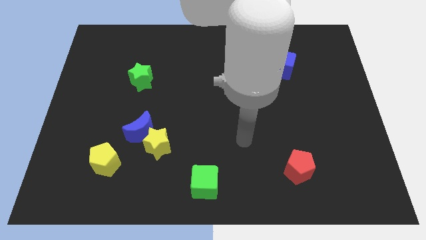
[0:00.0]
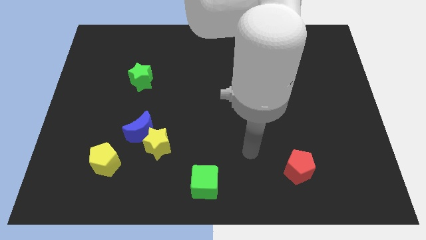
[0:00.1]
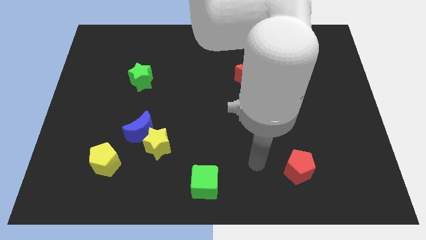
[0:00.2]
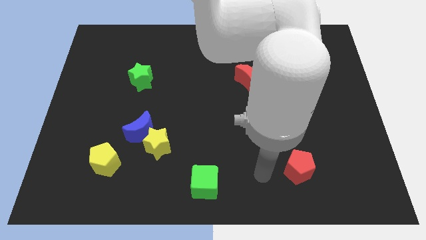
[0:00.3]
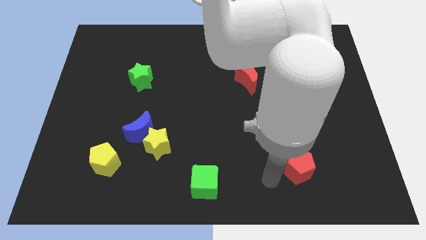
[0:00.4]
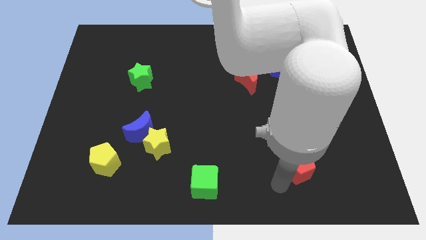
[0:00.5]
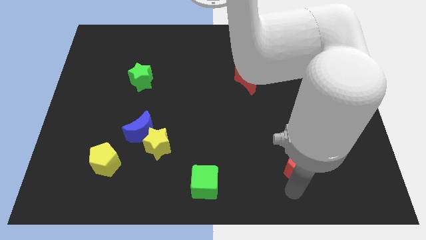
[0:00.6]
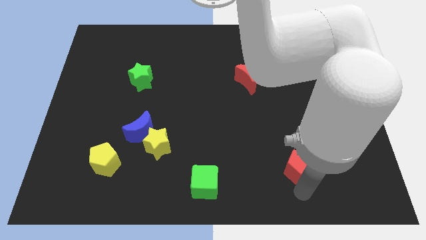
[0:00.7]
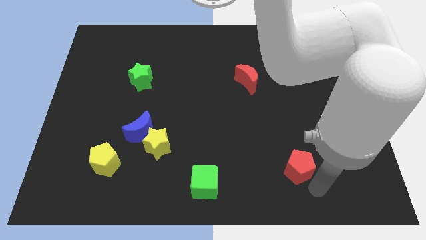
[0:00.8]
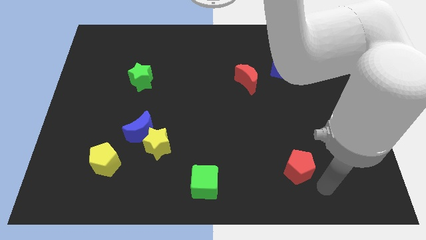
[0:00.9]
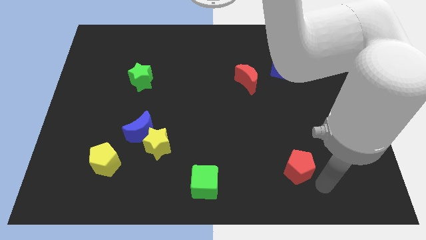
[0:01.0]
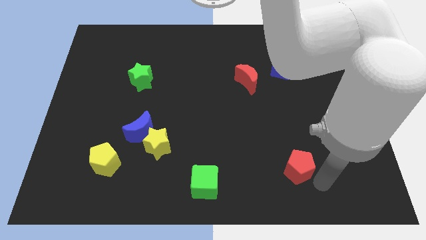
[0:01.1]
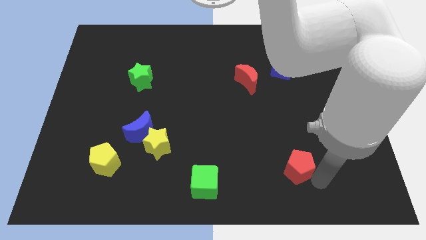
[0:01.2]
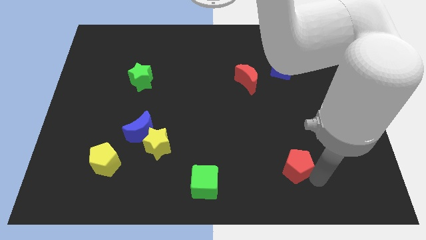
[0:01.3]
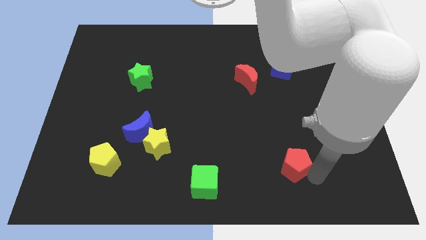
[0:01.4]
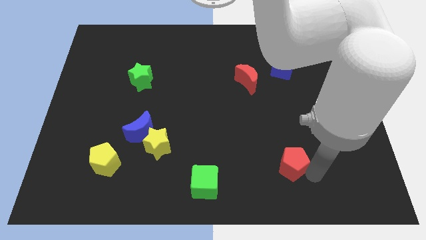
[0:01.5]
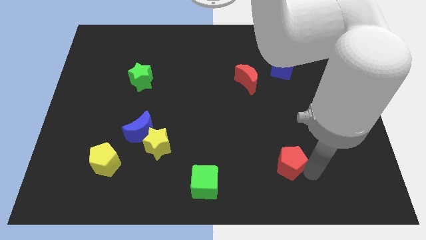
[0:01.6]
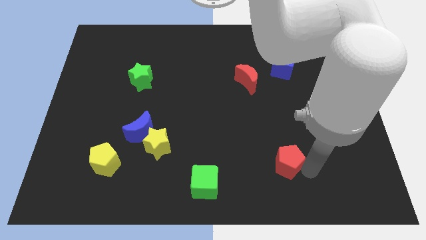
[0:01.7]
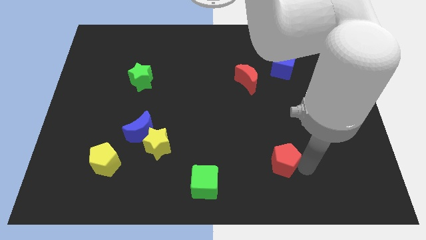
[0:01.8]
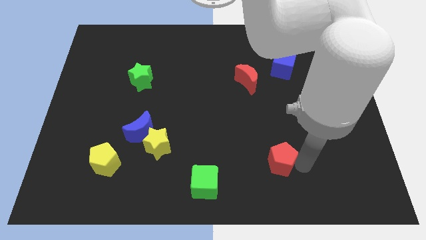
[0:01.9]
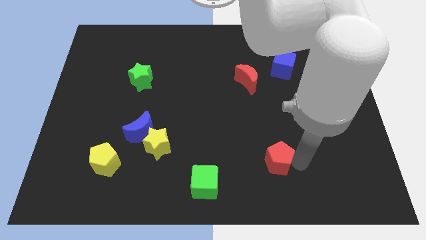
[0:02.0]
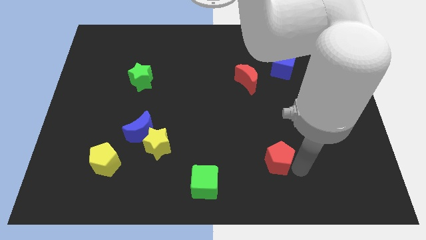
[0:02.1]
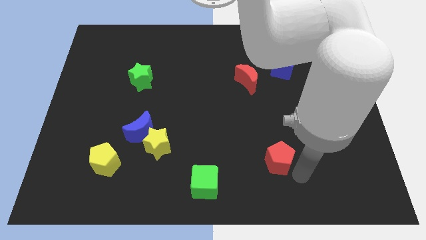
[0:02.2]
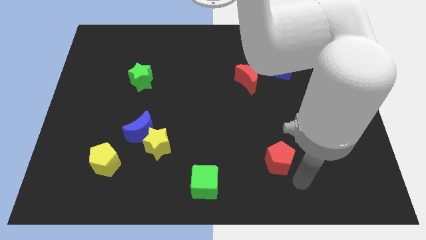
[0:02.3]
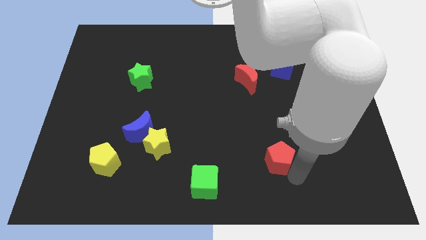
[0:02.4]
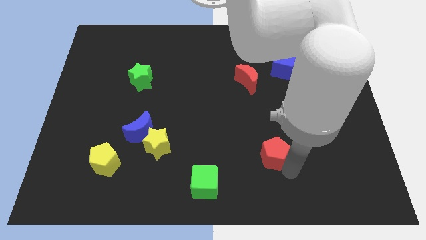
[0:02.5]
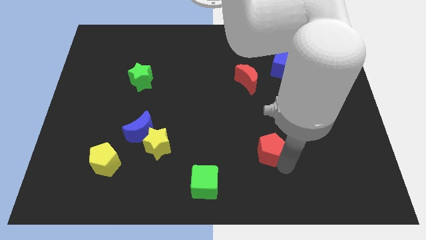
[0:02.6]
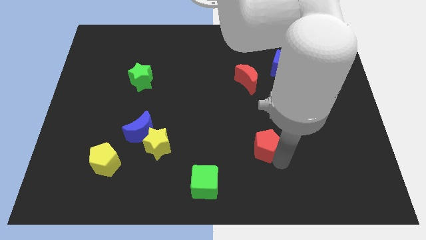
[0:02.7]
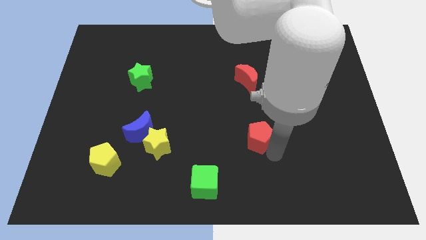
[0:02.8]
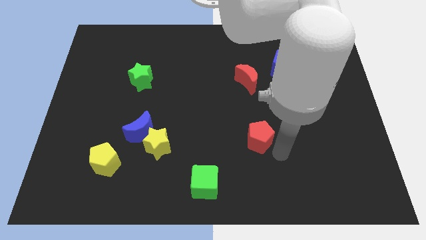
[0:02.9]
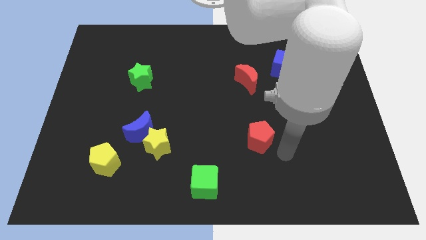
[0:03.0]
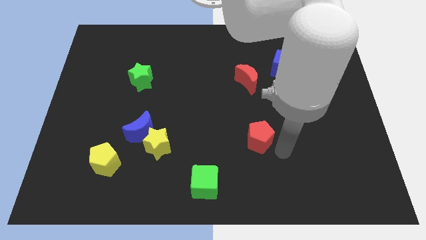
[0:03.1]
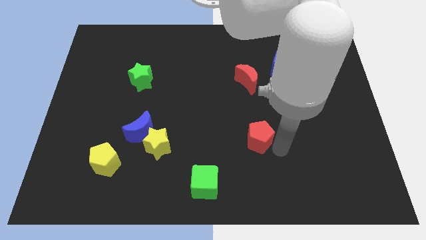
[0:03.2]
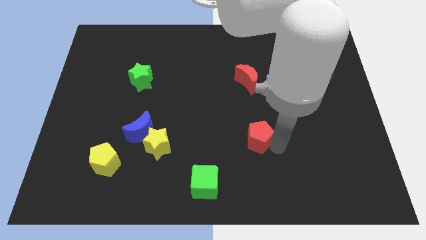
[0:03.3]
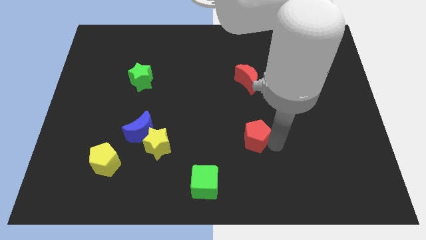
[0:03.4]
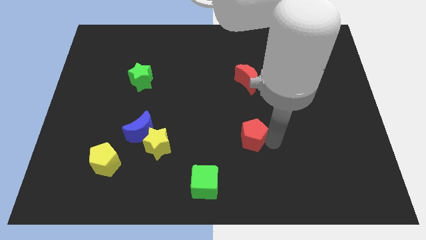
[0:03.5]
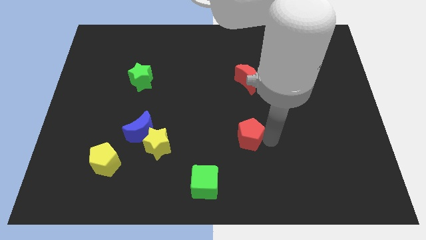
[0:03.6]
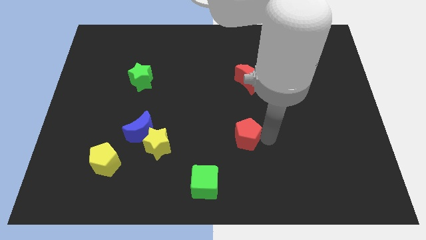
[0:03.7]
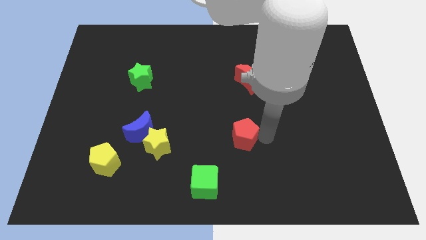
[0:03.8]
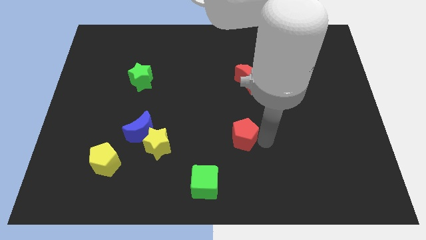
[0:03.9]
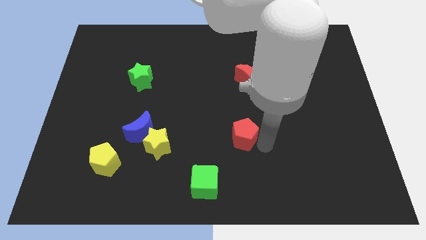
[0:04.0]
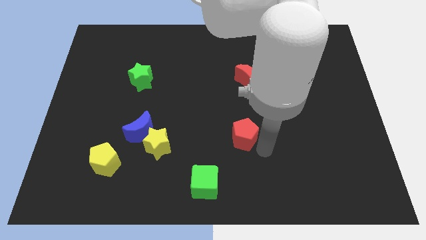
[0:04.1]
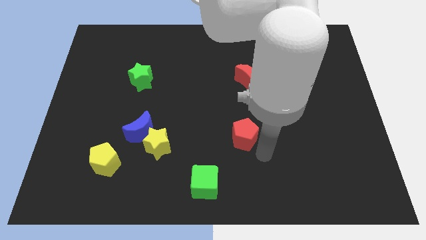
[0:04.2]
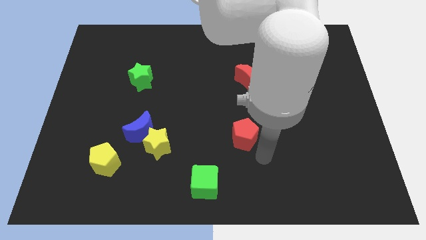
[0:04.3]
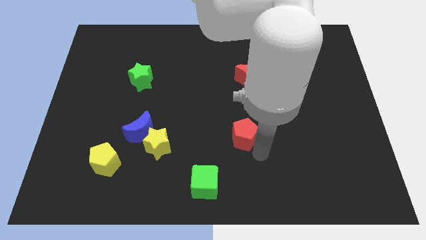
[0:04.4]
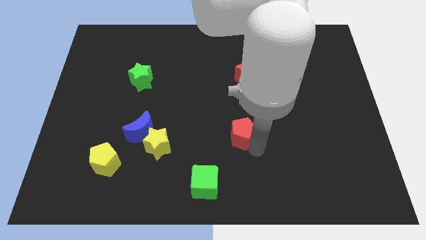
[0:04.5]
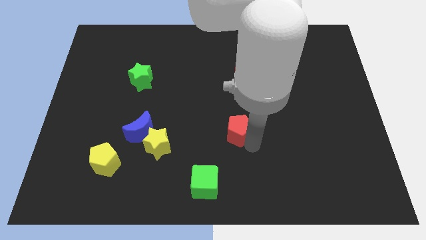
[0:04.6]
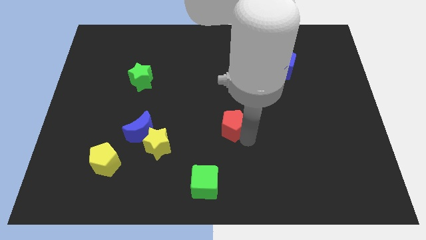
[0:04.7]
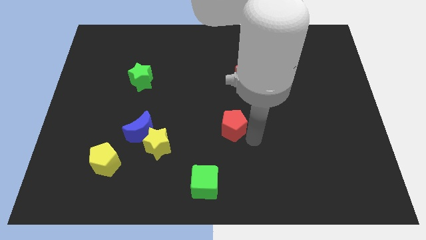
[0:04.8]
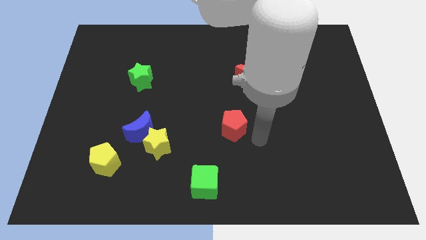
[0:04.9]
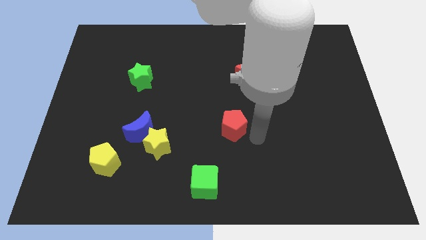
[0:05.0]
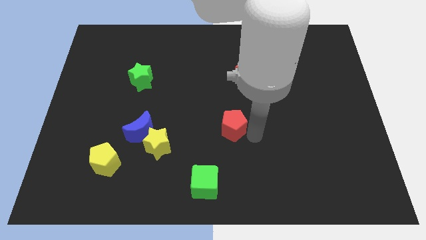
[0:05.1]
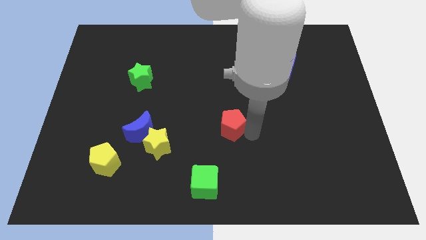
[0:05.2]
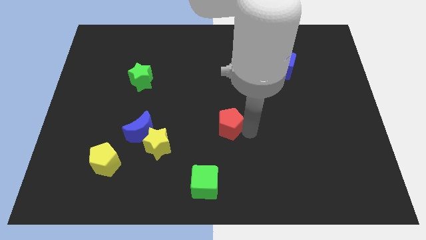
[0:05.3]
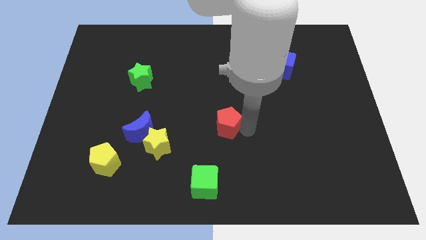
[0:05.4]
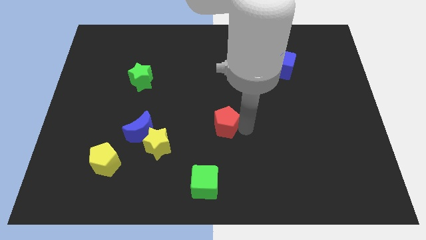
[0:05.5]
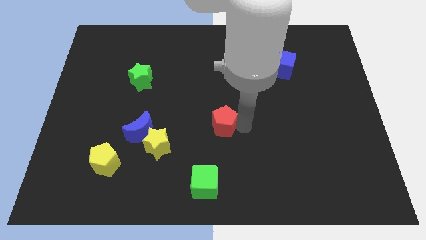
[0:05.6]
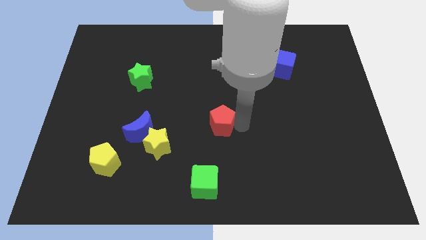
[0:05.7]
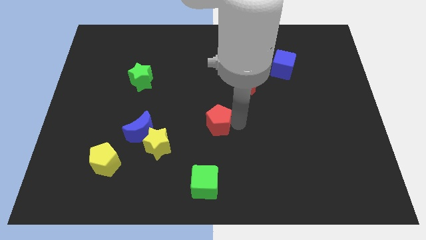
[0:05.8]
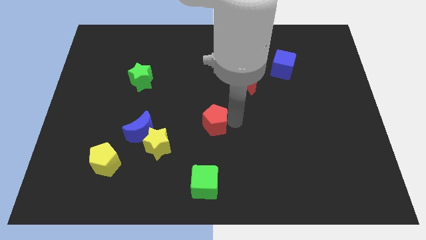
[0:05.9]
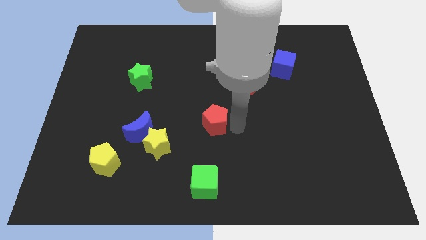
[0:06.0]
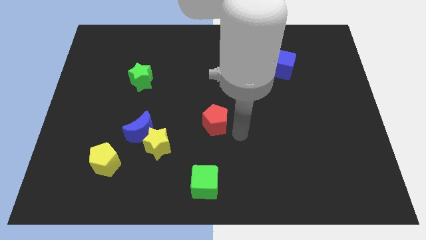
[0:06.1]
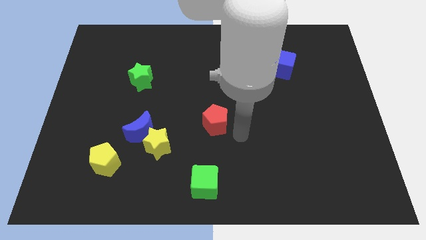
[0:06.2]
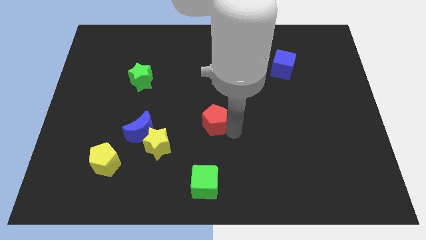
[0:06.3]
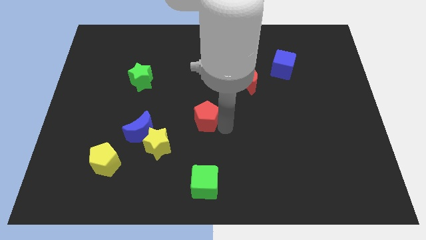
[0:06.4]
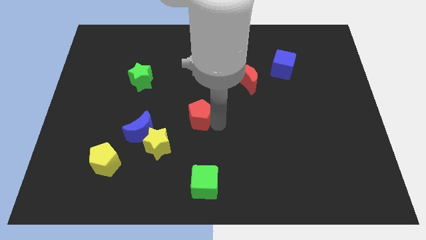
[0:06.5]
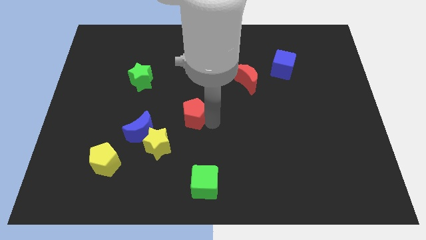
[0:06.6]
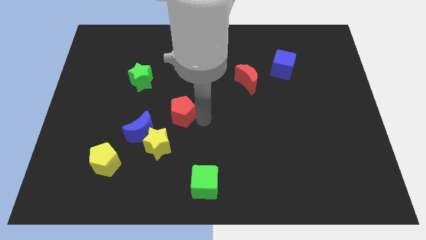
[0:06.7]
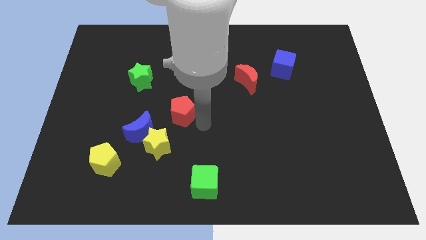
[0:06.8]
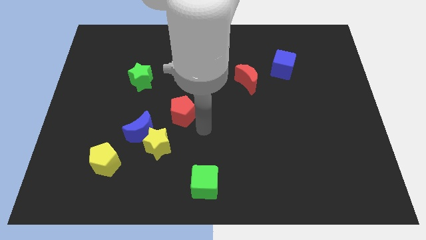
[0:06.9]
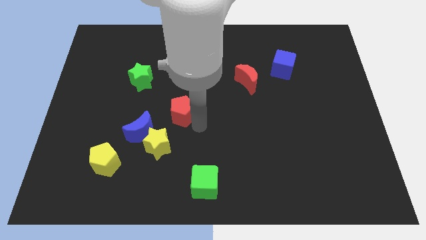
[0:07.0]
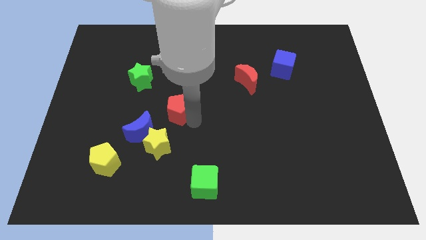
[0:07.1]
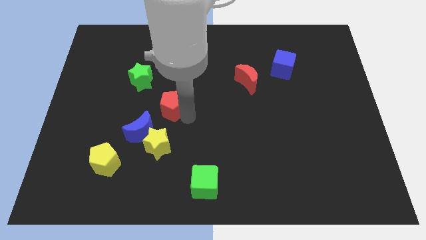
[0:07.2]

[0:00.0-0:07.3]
push the red pentagon to the bottom right side of the green star
